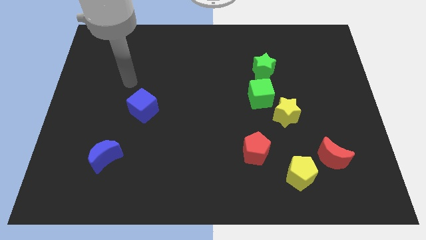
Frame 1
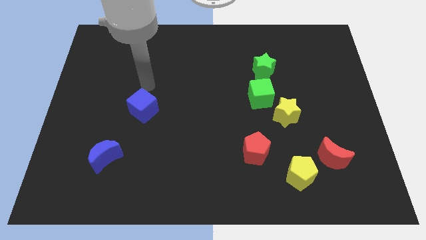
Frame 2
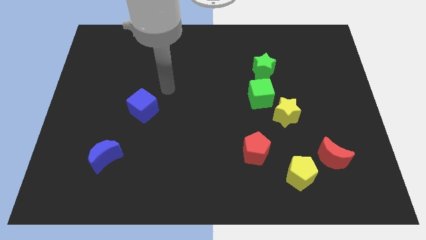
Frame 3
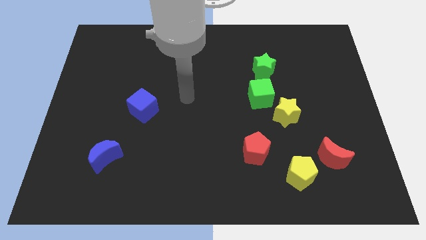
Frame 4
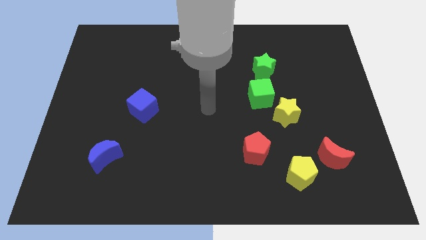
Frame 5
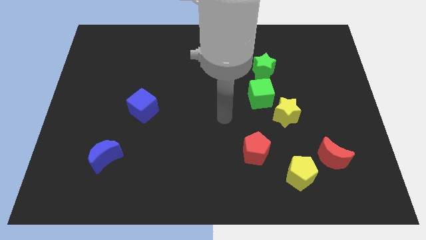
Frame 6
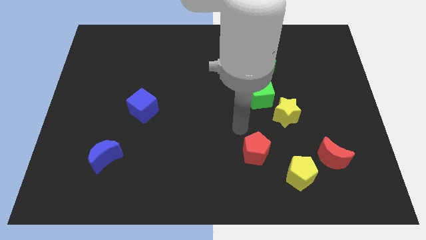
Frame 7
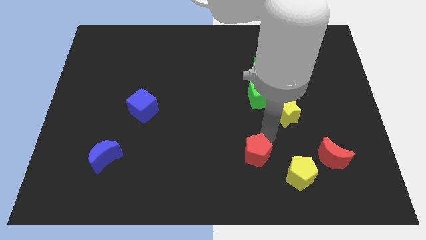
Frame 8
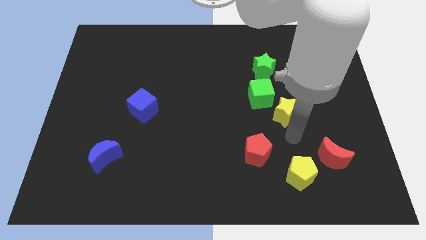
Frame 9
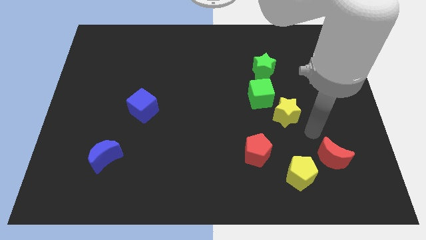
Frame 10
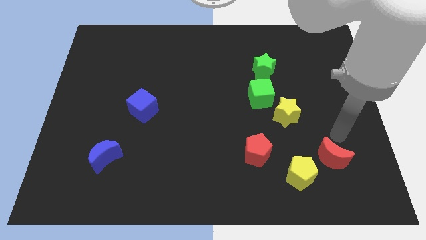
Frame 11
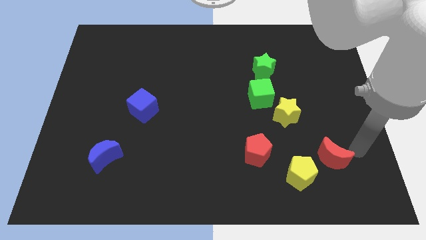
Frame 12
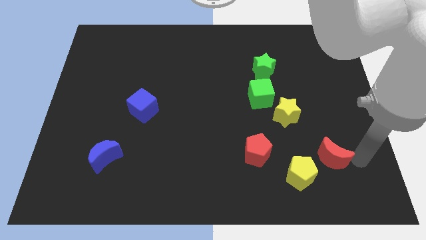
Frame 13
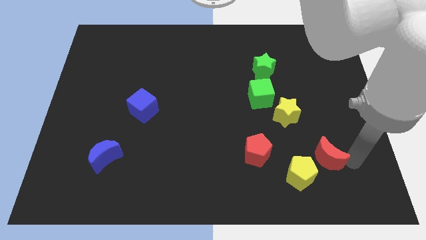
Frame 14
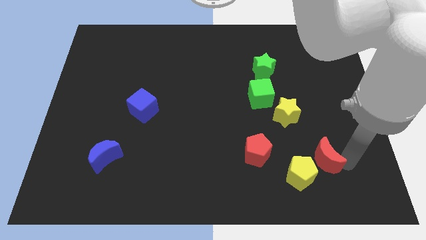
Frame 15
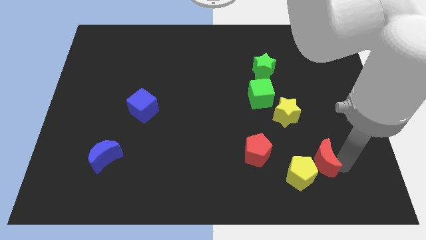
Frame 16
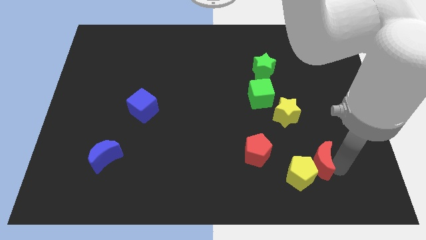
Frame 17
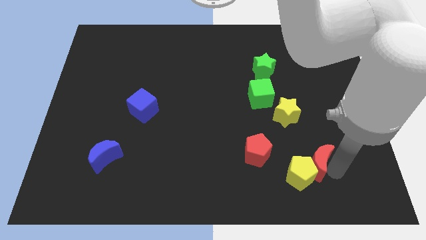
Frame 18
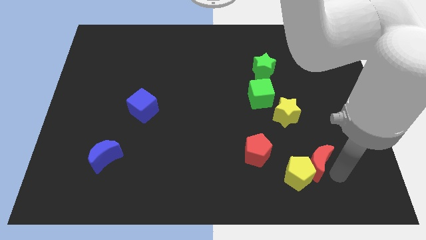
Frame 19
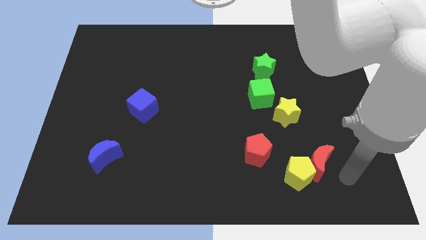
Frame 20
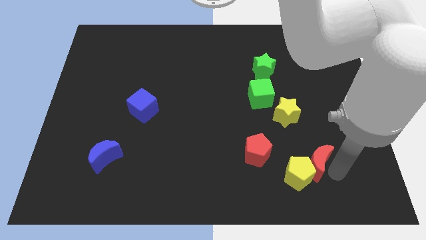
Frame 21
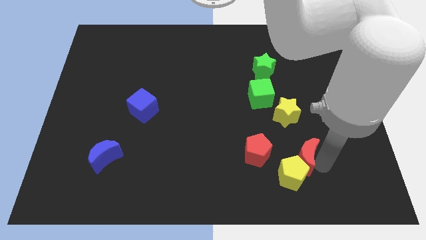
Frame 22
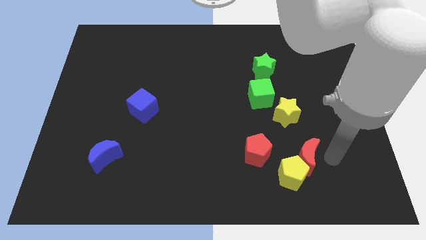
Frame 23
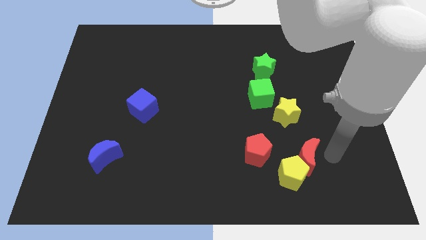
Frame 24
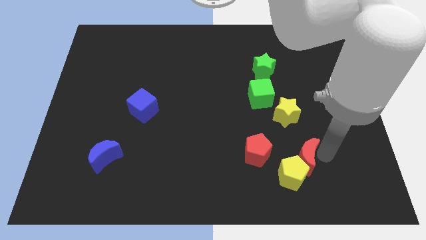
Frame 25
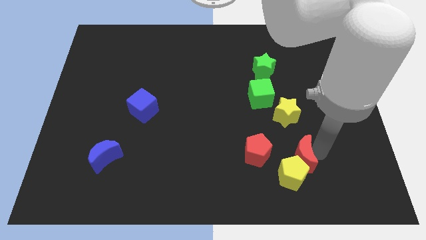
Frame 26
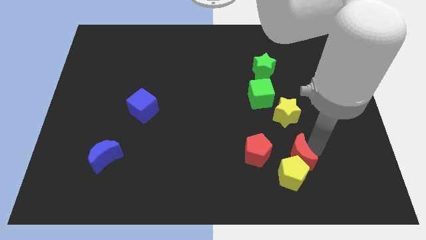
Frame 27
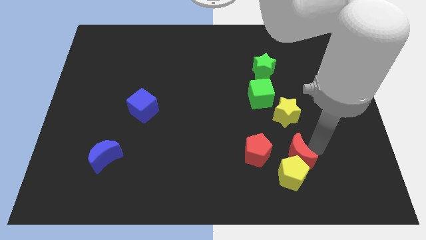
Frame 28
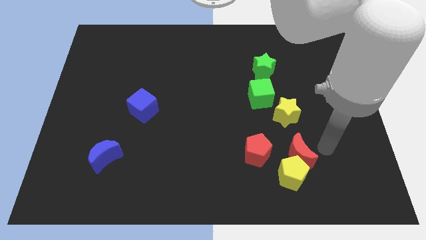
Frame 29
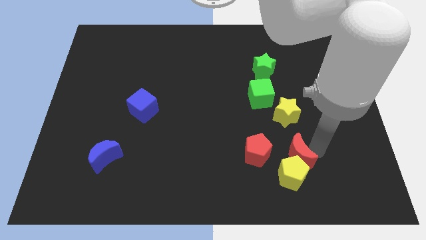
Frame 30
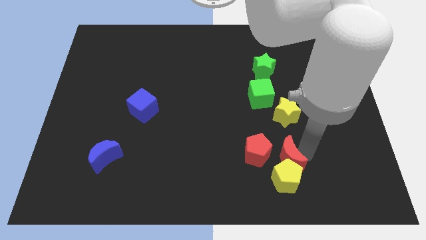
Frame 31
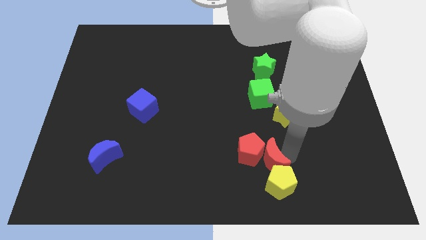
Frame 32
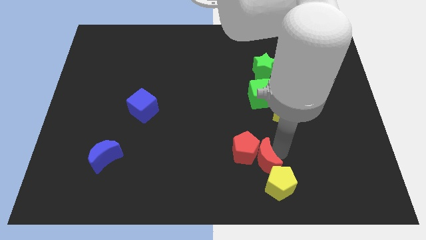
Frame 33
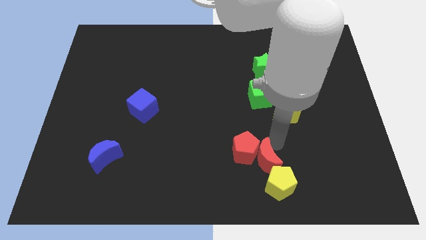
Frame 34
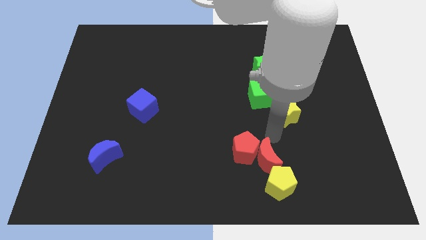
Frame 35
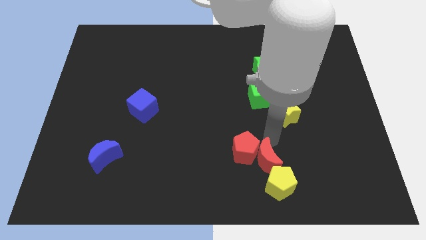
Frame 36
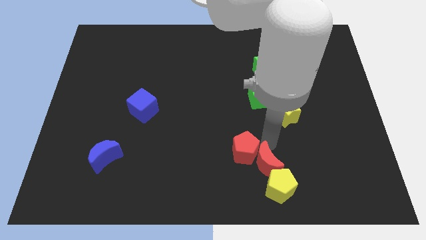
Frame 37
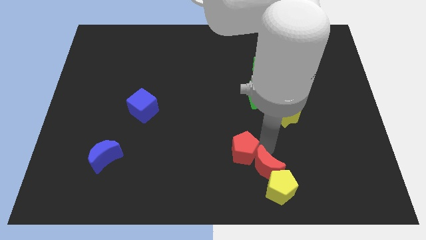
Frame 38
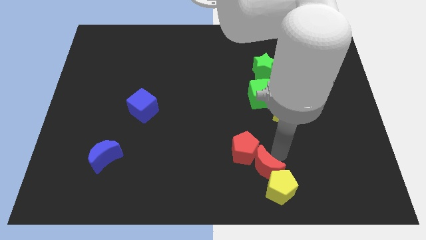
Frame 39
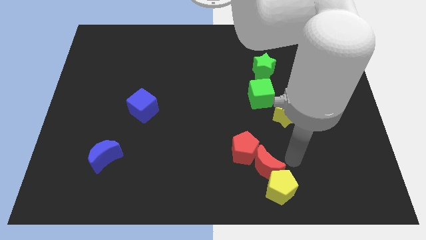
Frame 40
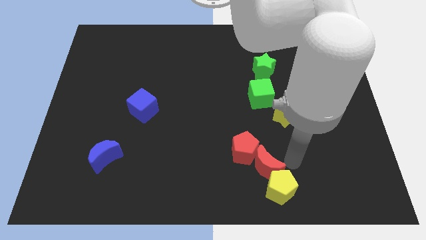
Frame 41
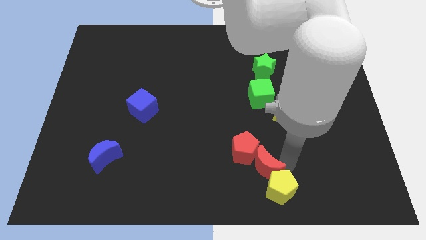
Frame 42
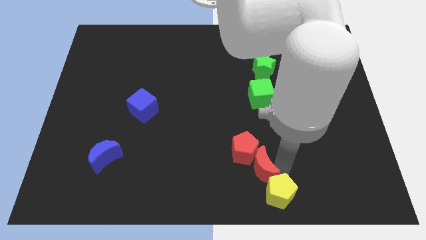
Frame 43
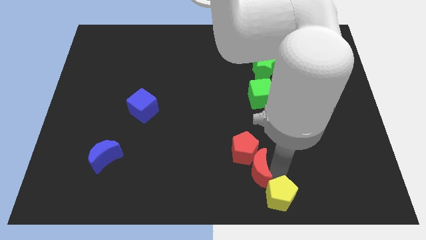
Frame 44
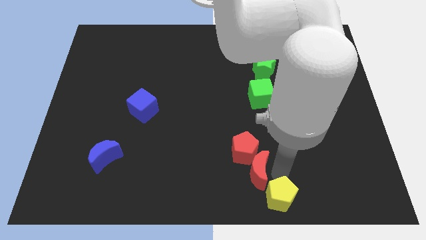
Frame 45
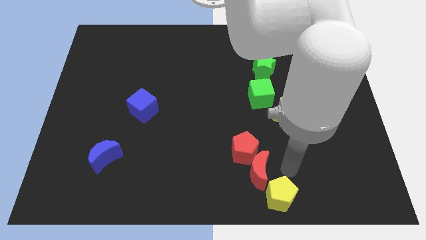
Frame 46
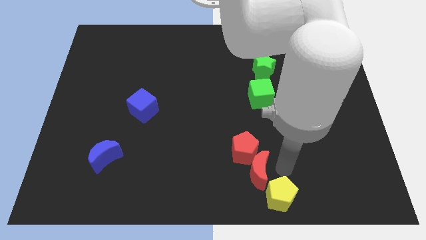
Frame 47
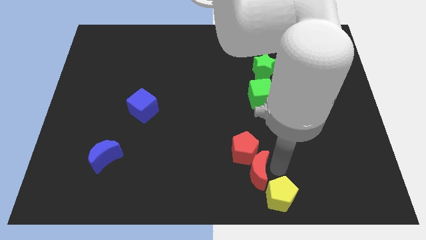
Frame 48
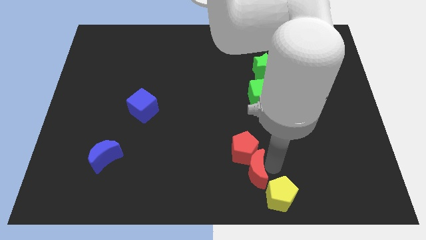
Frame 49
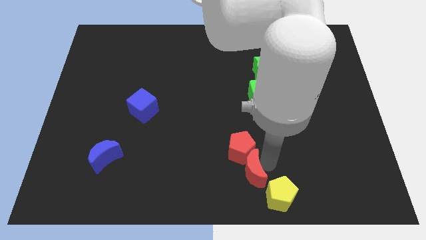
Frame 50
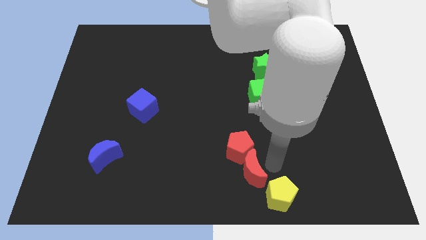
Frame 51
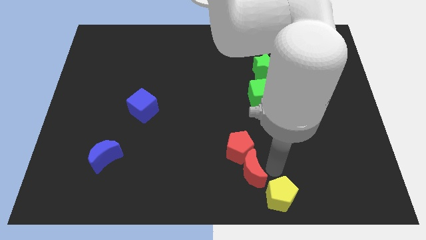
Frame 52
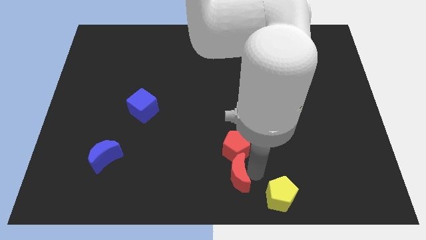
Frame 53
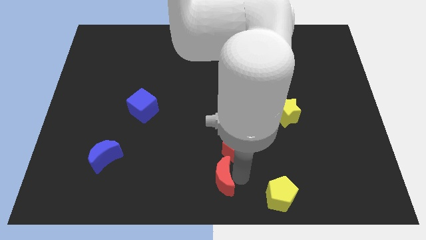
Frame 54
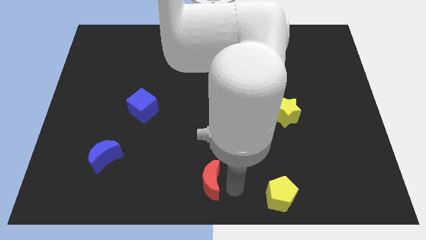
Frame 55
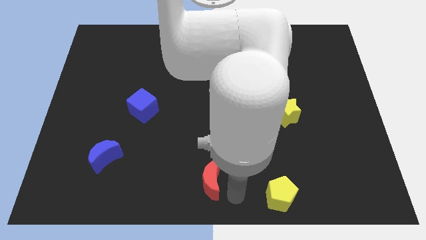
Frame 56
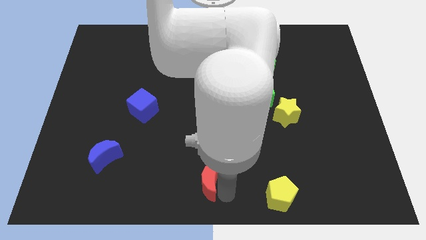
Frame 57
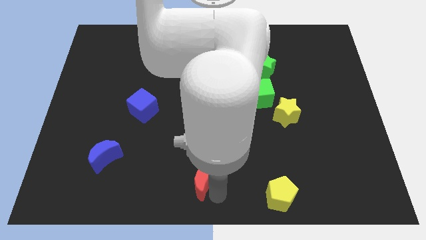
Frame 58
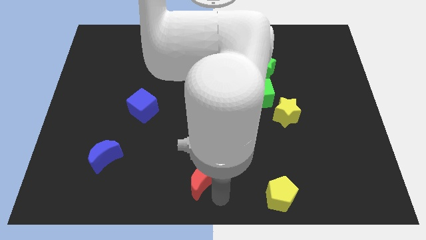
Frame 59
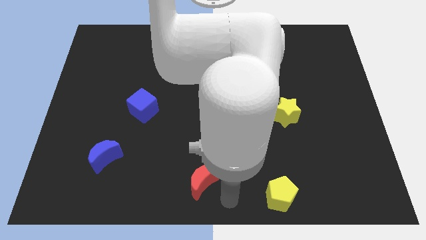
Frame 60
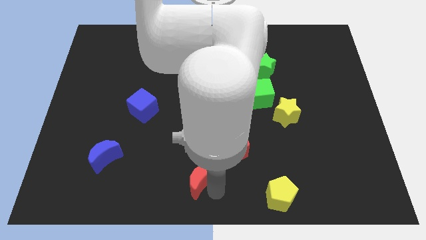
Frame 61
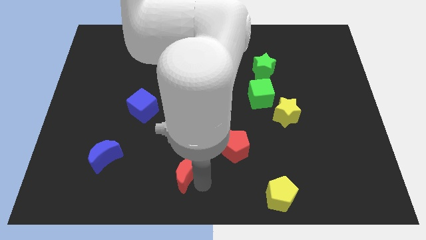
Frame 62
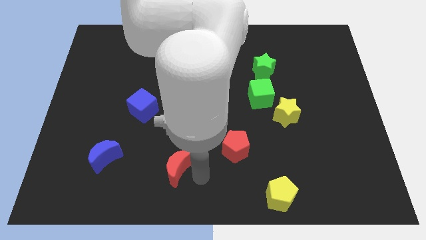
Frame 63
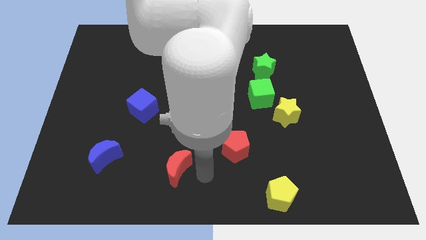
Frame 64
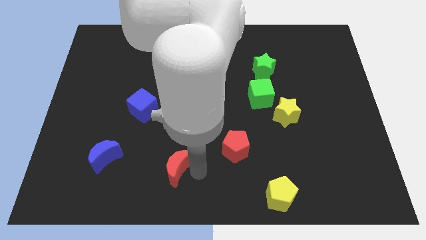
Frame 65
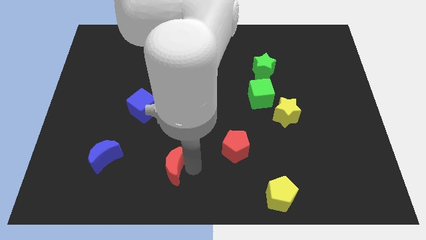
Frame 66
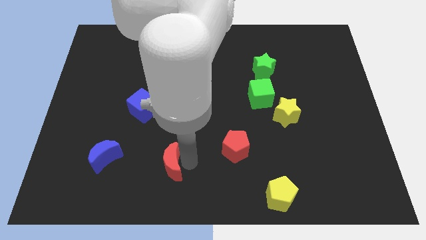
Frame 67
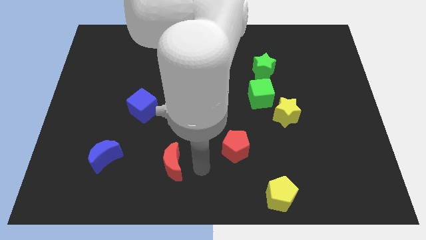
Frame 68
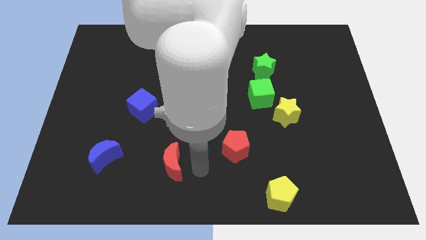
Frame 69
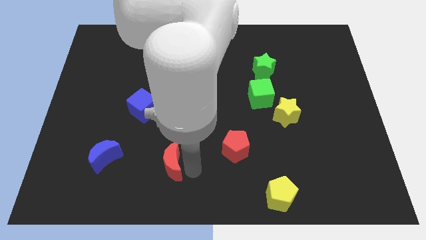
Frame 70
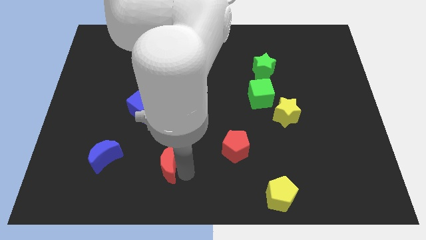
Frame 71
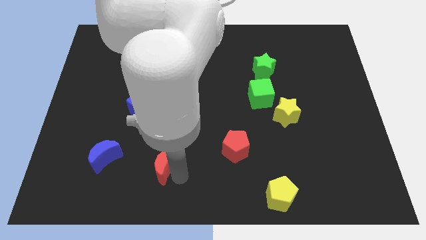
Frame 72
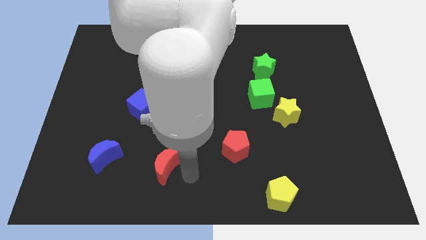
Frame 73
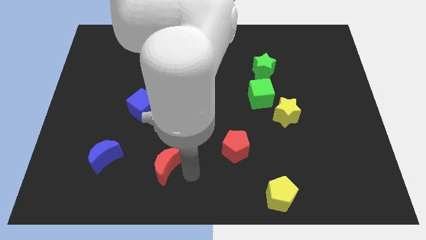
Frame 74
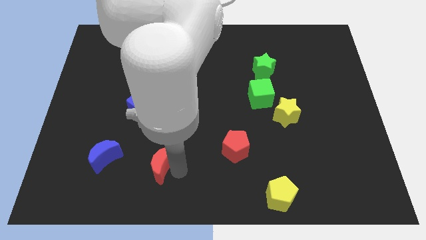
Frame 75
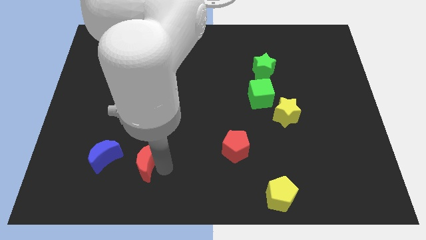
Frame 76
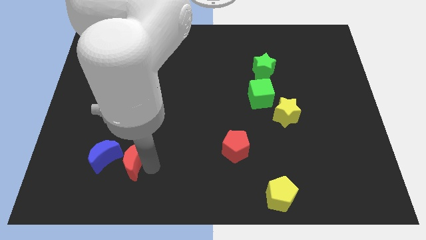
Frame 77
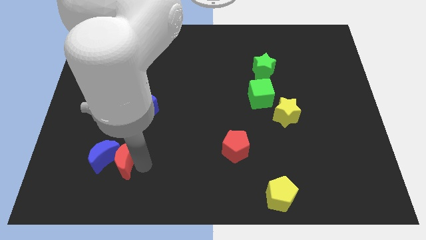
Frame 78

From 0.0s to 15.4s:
slide the red moon to the blue moon

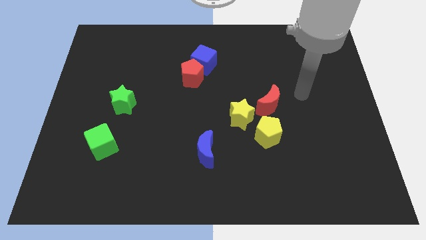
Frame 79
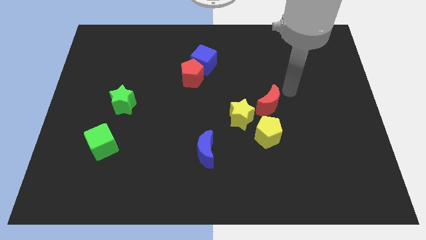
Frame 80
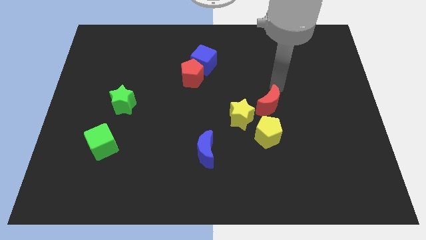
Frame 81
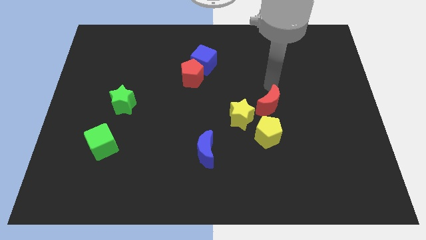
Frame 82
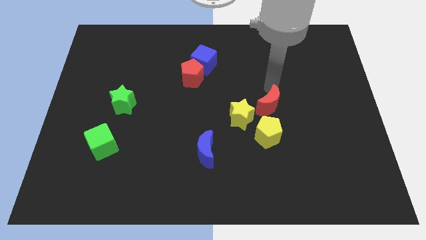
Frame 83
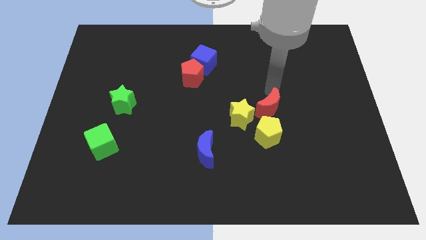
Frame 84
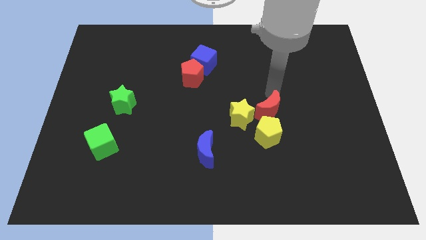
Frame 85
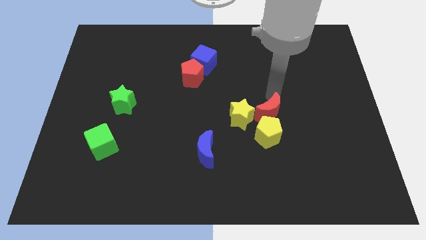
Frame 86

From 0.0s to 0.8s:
slide the red moon next to the yellow pentagon
